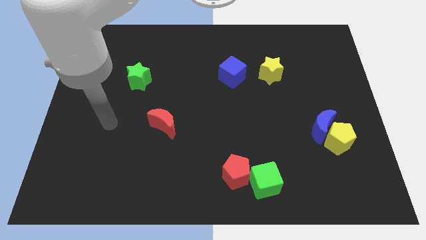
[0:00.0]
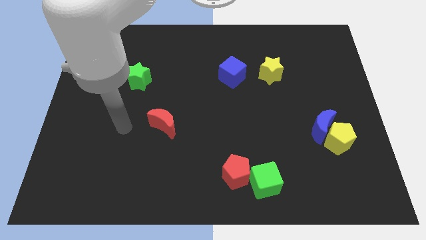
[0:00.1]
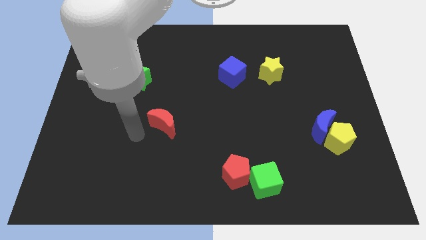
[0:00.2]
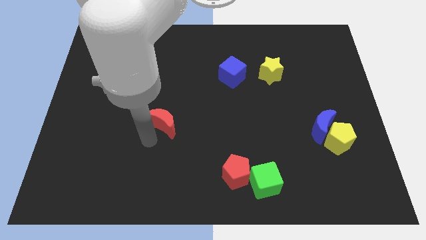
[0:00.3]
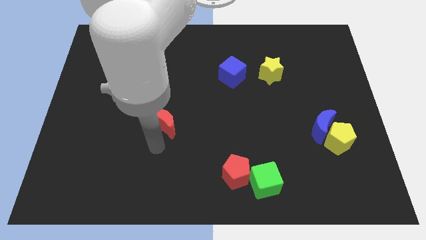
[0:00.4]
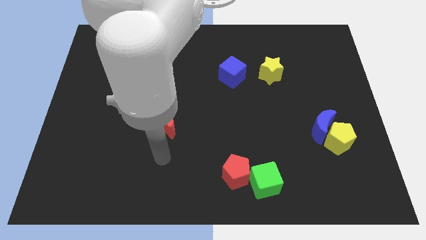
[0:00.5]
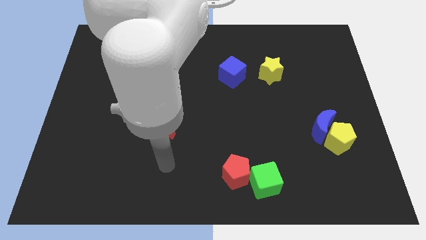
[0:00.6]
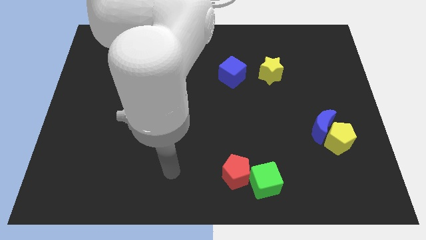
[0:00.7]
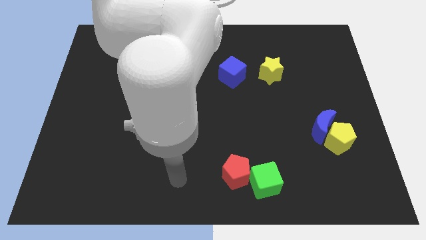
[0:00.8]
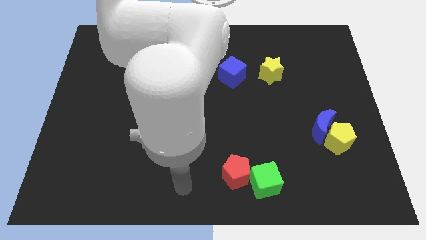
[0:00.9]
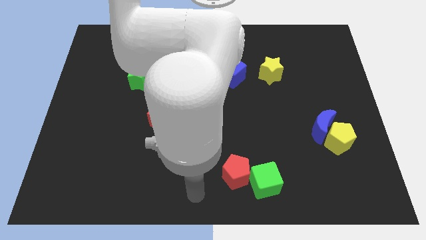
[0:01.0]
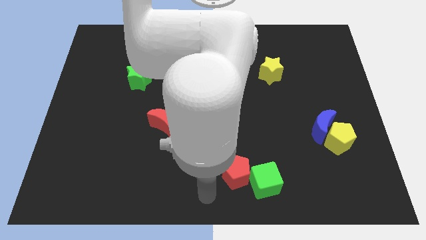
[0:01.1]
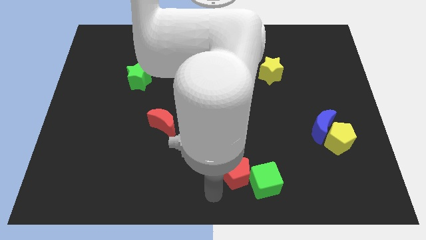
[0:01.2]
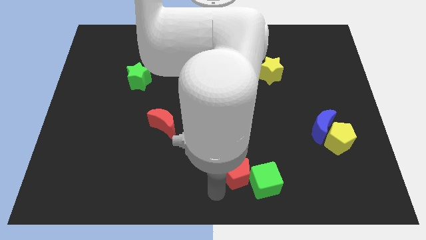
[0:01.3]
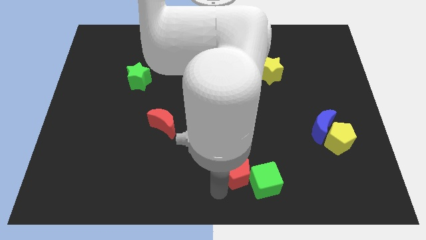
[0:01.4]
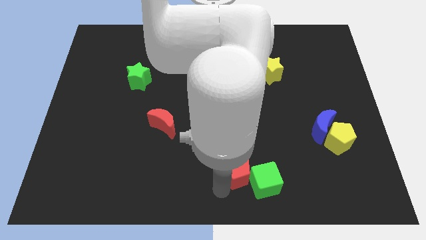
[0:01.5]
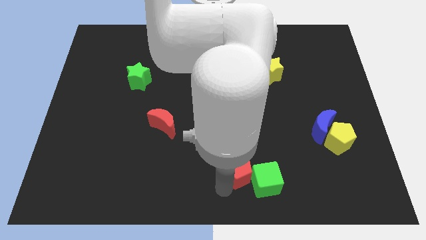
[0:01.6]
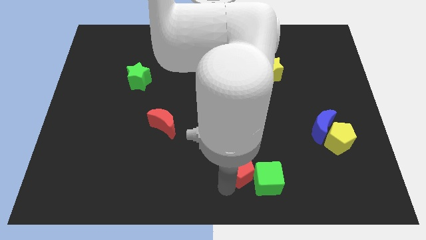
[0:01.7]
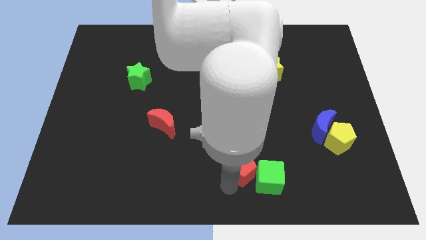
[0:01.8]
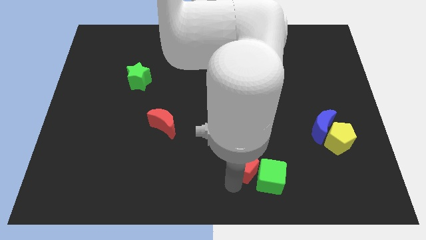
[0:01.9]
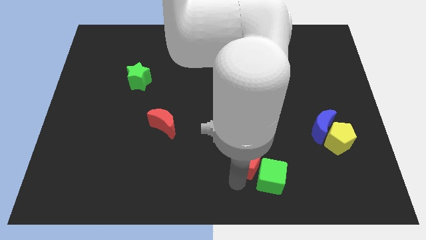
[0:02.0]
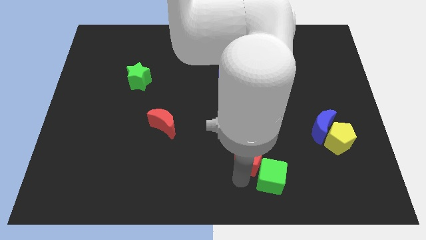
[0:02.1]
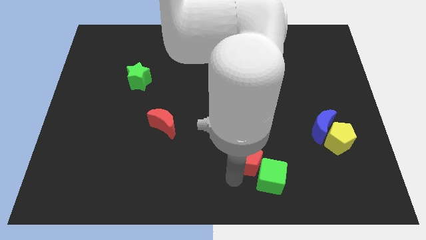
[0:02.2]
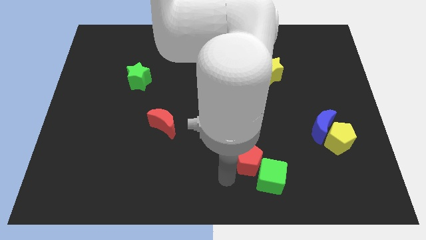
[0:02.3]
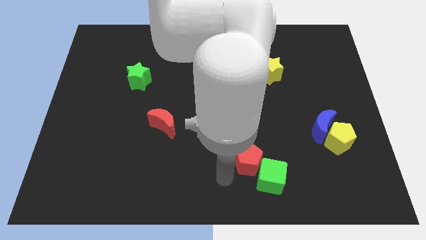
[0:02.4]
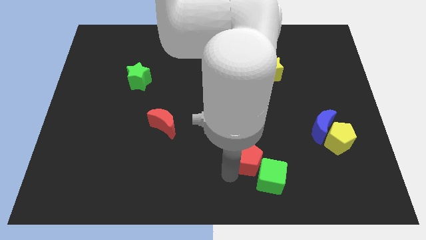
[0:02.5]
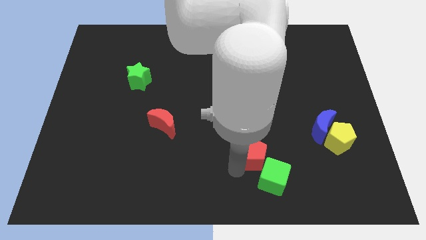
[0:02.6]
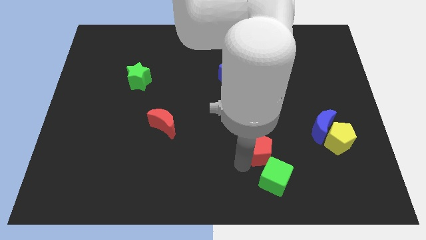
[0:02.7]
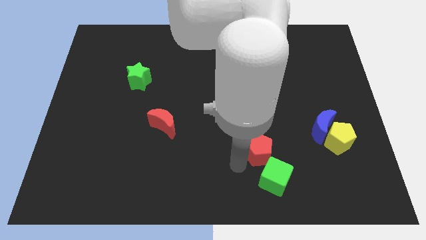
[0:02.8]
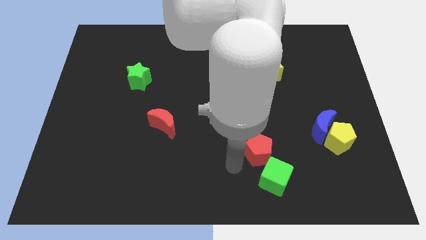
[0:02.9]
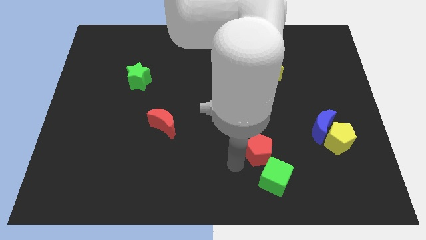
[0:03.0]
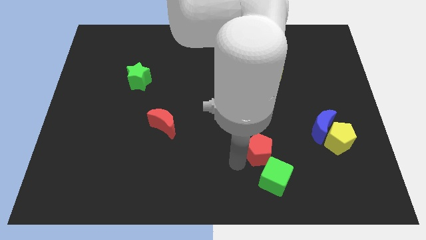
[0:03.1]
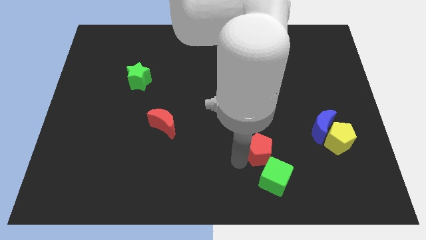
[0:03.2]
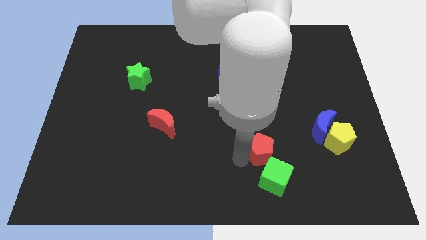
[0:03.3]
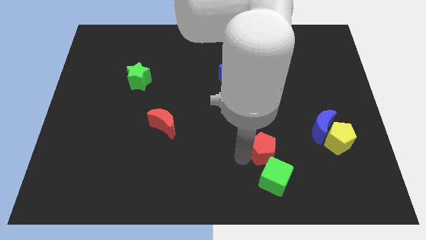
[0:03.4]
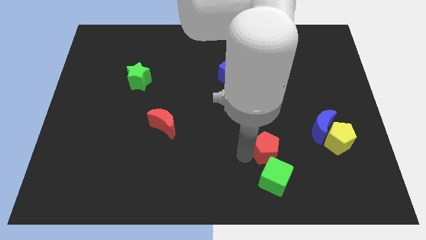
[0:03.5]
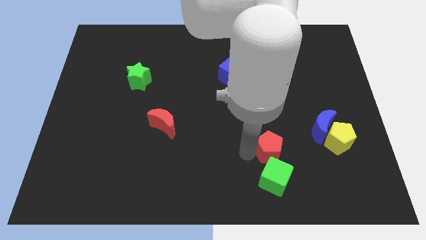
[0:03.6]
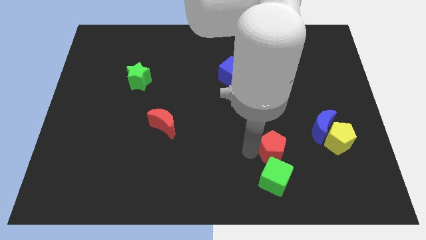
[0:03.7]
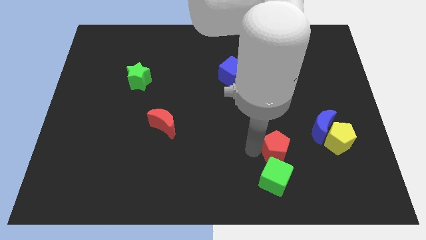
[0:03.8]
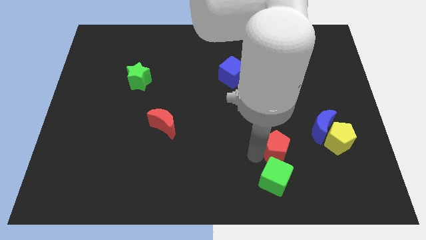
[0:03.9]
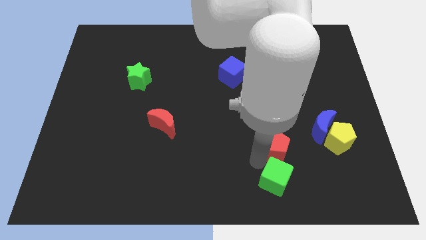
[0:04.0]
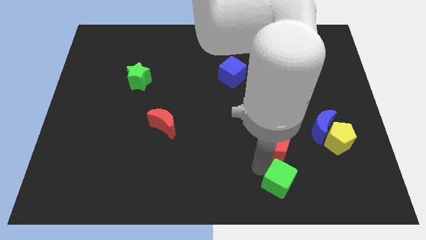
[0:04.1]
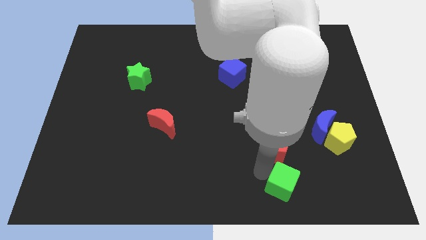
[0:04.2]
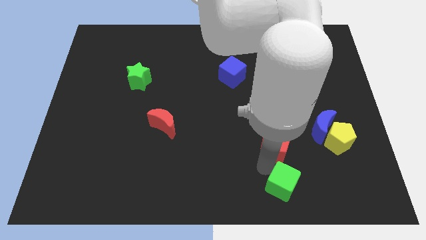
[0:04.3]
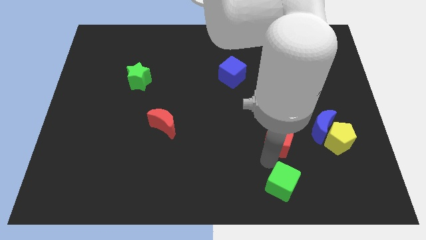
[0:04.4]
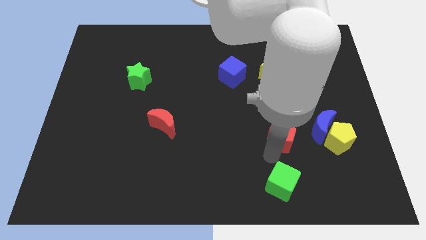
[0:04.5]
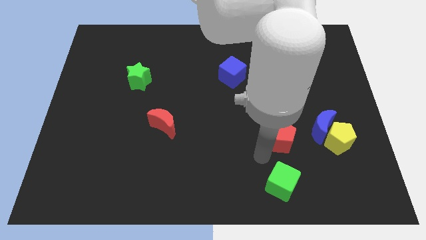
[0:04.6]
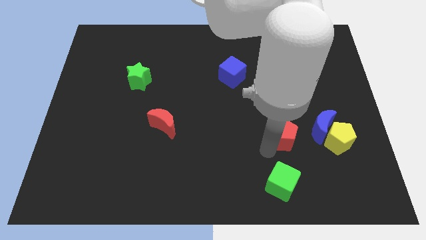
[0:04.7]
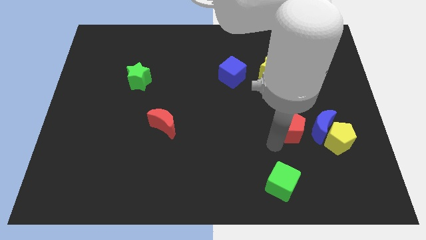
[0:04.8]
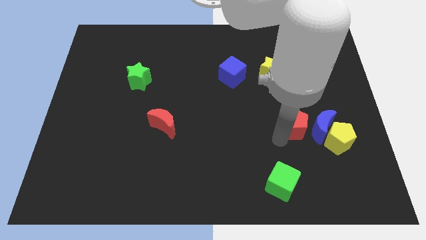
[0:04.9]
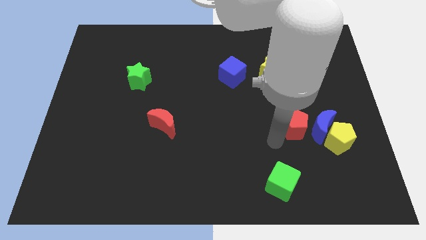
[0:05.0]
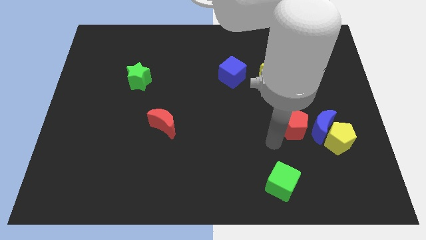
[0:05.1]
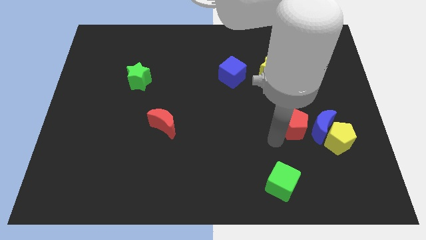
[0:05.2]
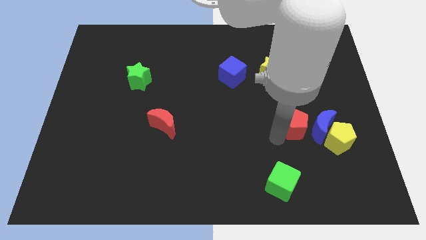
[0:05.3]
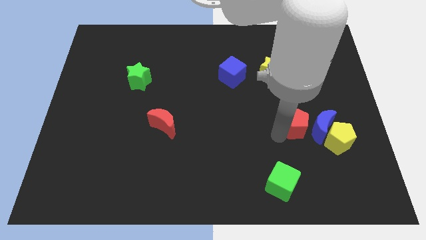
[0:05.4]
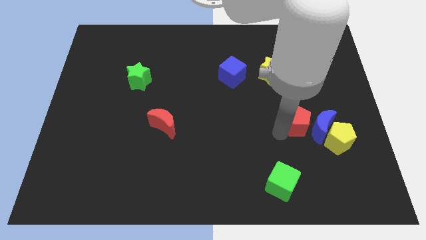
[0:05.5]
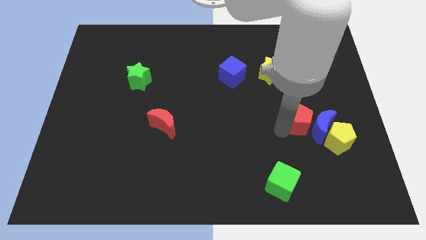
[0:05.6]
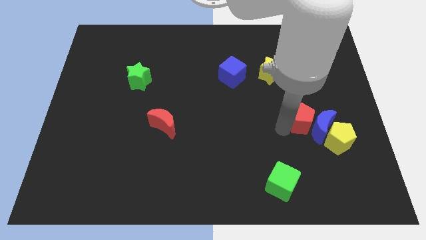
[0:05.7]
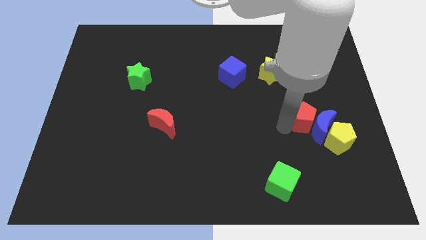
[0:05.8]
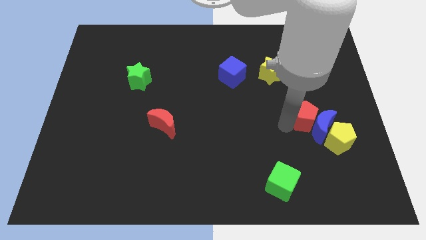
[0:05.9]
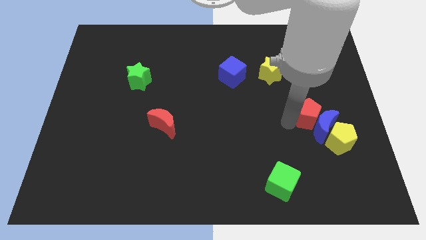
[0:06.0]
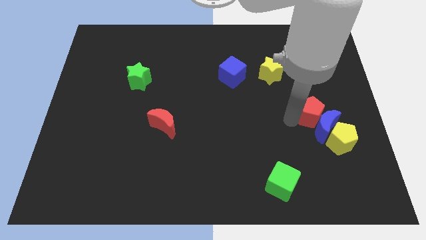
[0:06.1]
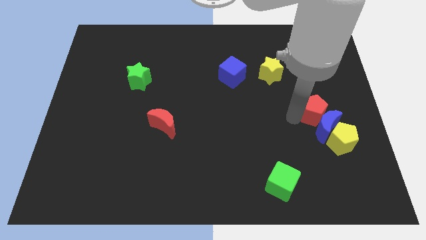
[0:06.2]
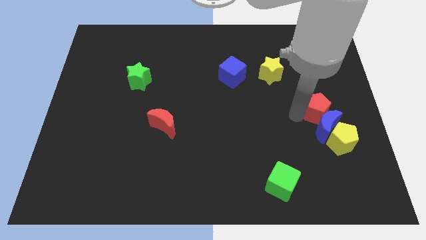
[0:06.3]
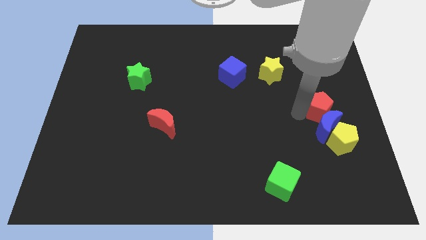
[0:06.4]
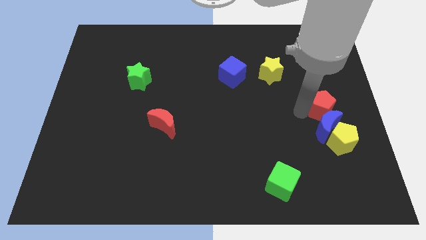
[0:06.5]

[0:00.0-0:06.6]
move the red pentagon to the right side
